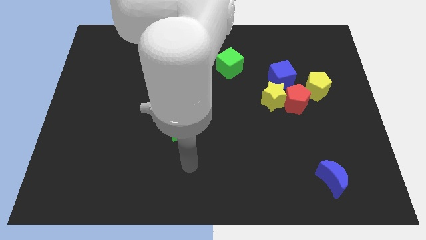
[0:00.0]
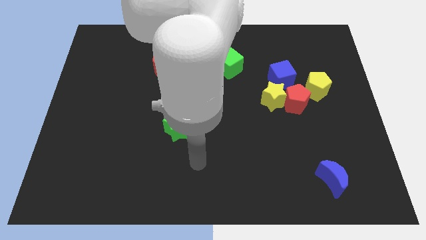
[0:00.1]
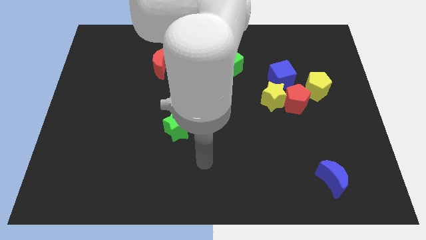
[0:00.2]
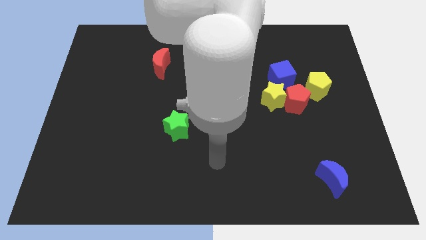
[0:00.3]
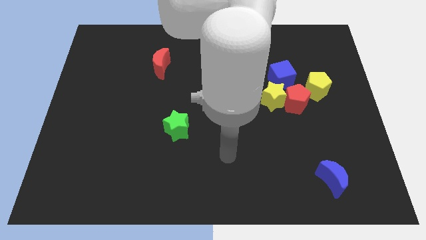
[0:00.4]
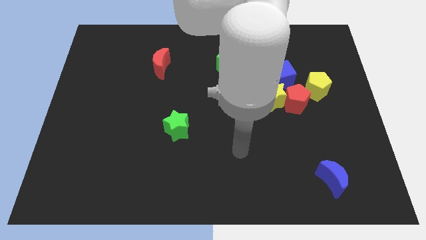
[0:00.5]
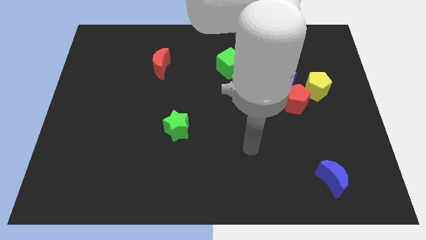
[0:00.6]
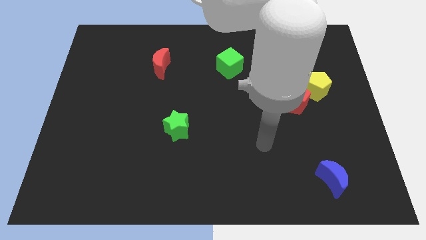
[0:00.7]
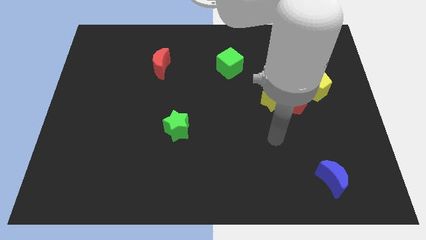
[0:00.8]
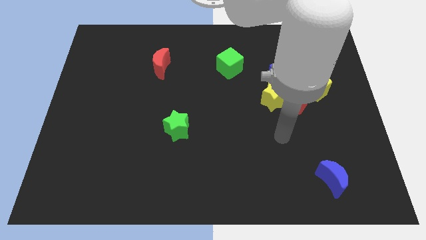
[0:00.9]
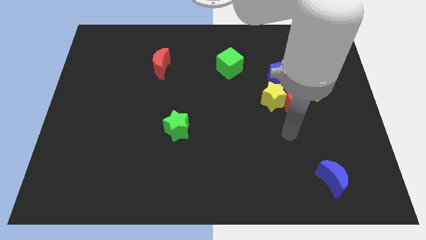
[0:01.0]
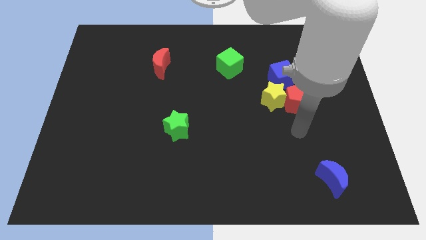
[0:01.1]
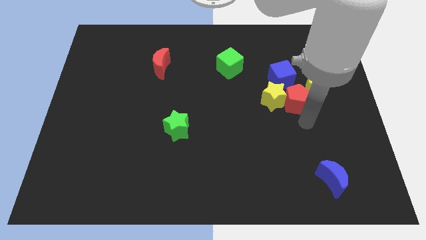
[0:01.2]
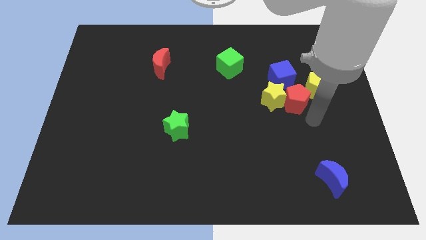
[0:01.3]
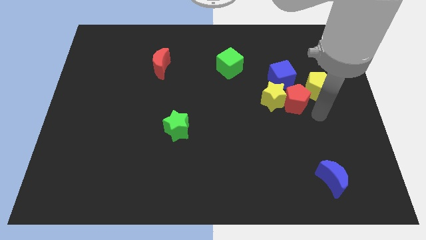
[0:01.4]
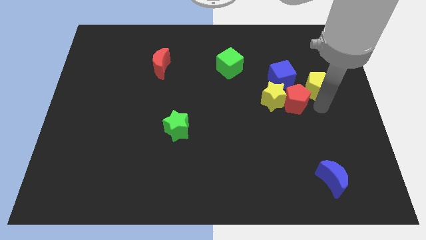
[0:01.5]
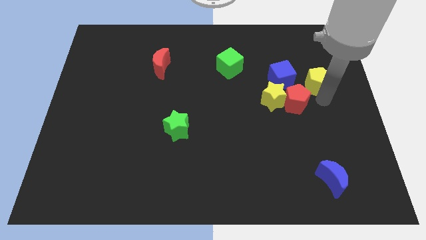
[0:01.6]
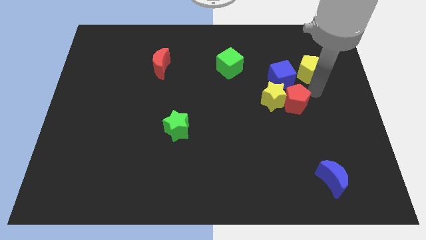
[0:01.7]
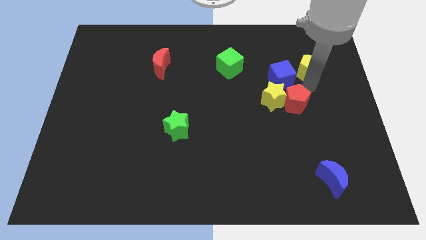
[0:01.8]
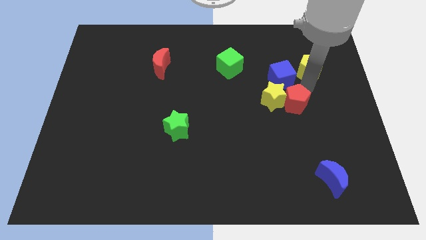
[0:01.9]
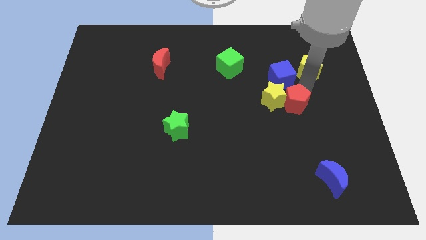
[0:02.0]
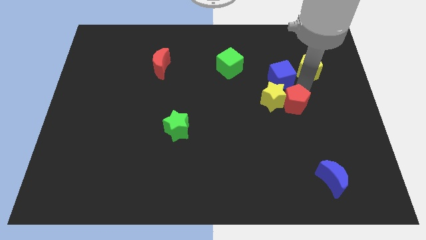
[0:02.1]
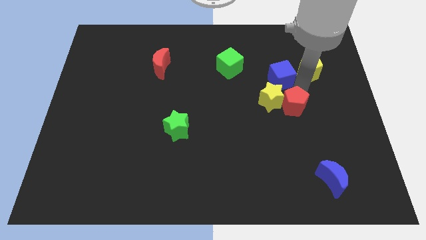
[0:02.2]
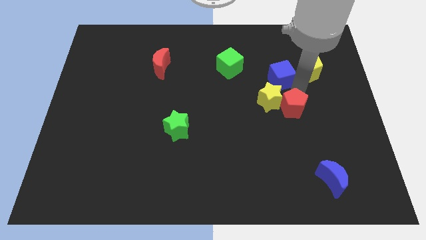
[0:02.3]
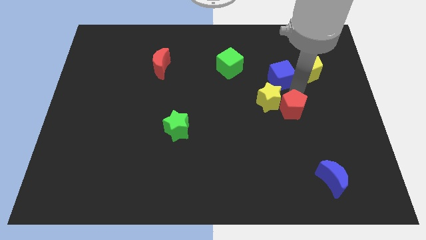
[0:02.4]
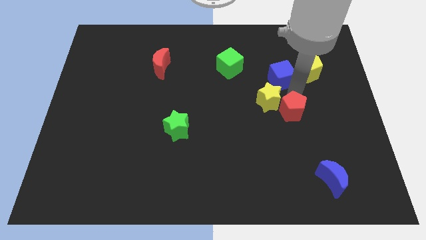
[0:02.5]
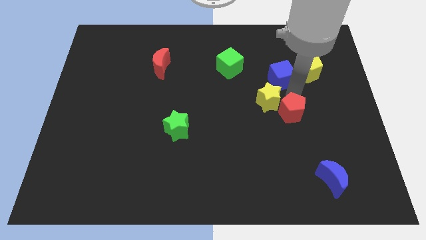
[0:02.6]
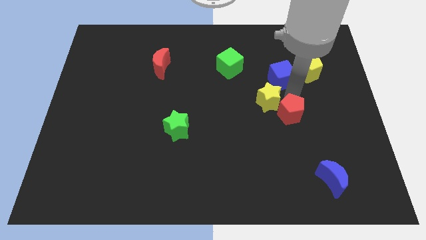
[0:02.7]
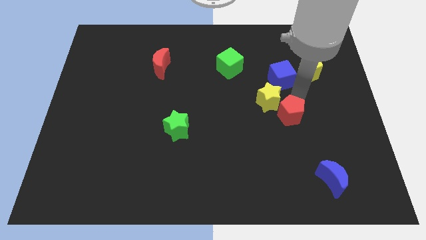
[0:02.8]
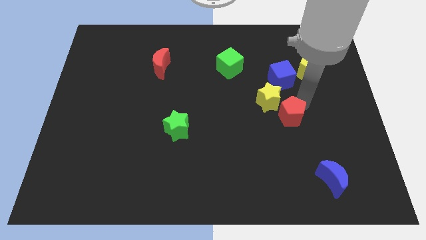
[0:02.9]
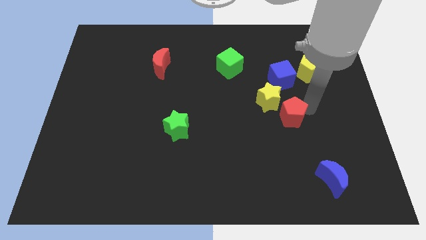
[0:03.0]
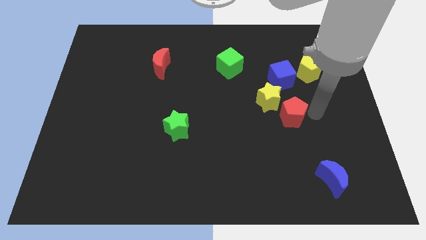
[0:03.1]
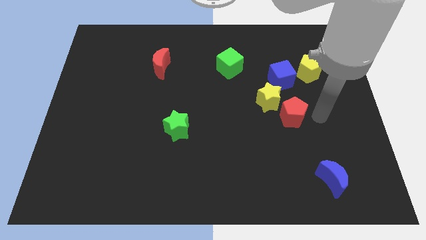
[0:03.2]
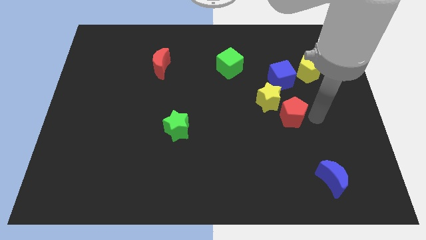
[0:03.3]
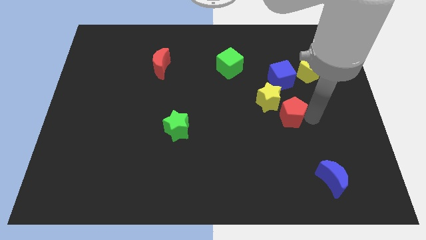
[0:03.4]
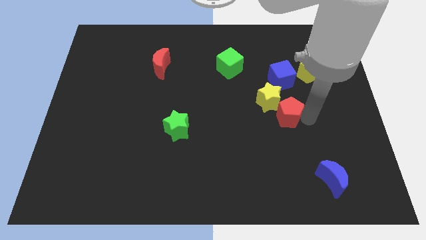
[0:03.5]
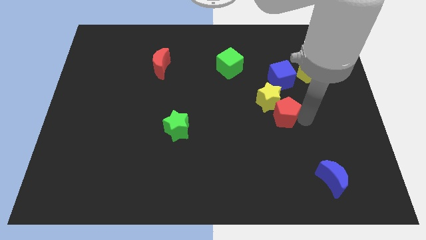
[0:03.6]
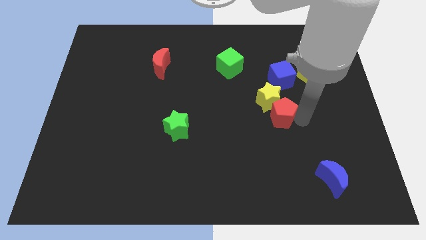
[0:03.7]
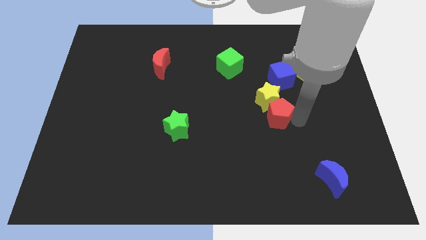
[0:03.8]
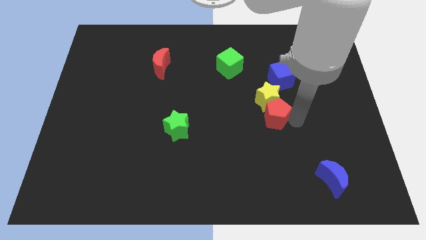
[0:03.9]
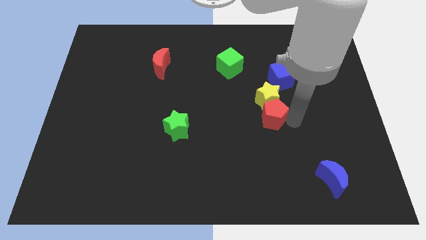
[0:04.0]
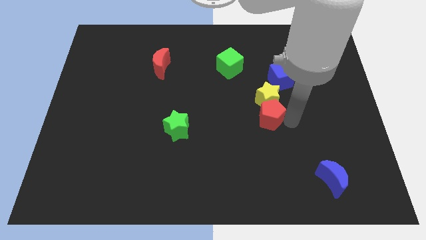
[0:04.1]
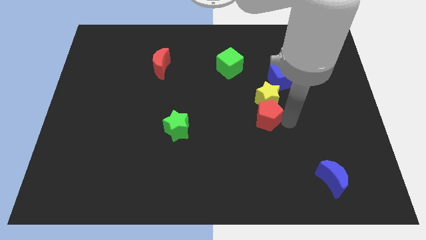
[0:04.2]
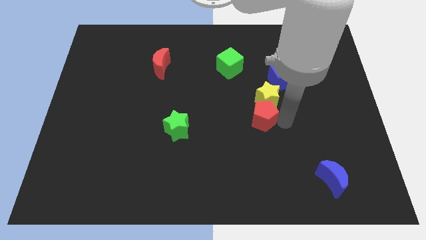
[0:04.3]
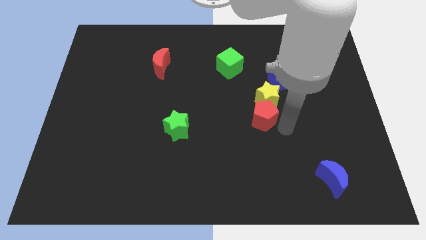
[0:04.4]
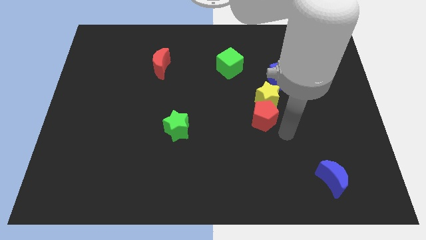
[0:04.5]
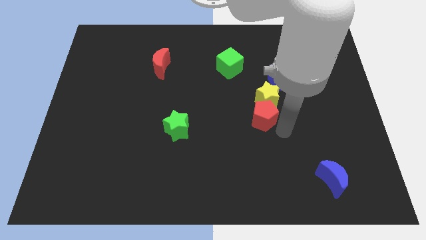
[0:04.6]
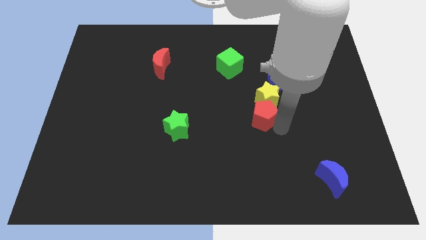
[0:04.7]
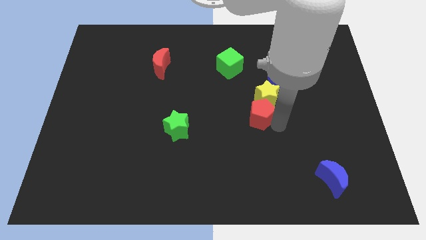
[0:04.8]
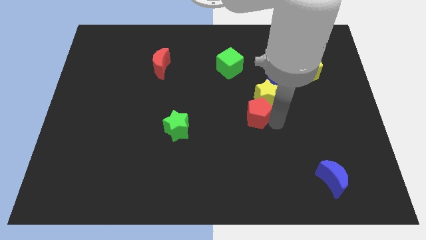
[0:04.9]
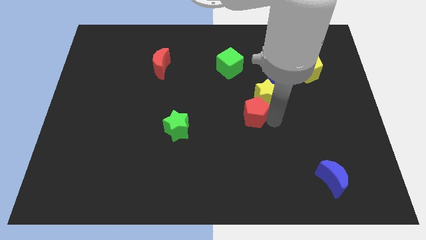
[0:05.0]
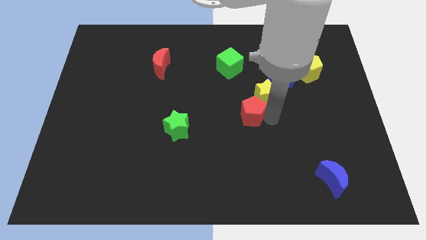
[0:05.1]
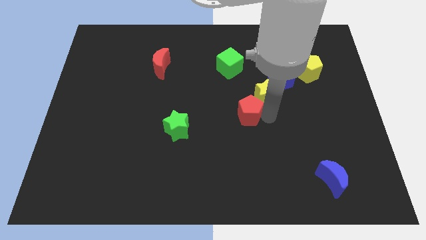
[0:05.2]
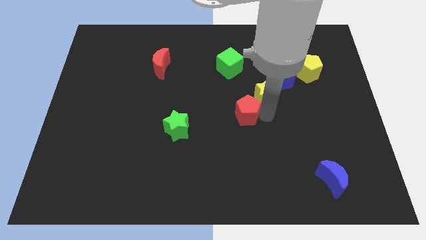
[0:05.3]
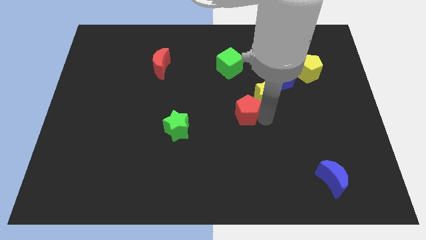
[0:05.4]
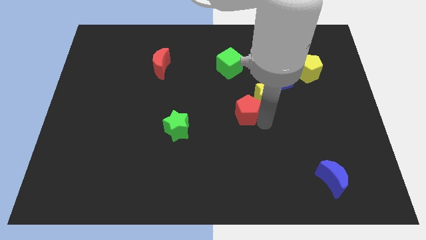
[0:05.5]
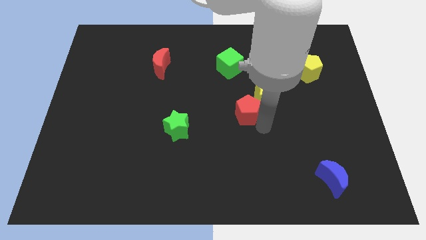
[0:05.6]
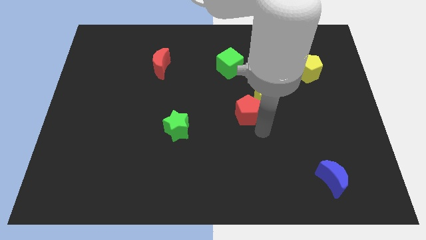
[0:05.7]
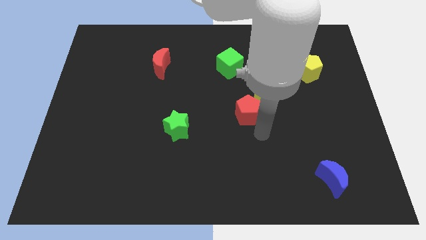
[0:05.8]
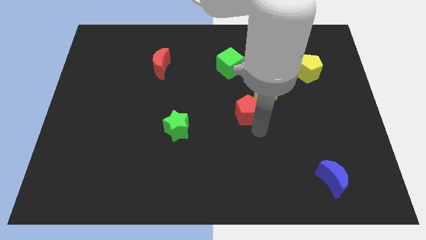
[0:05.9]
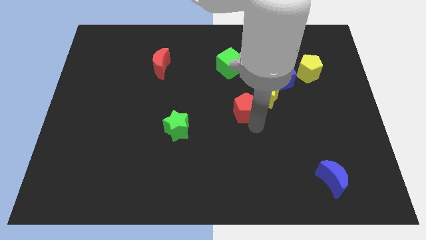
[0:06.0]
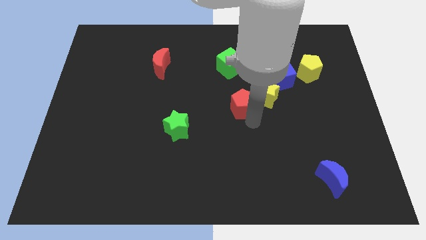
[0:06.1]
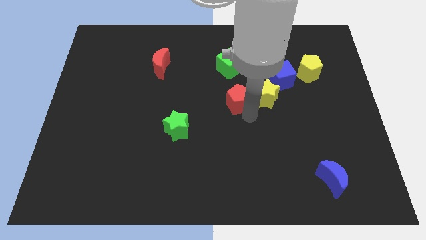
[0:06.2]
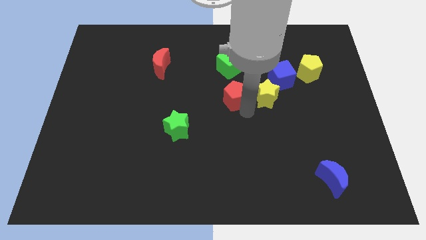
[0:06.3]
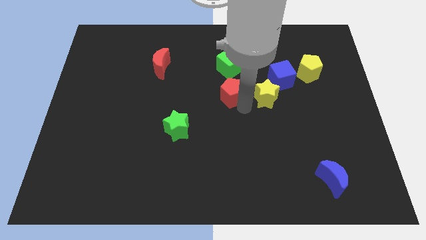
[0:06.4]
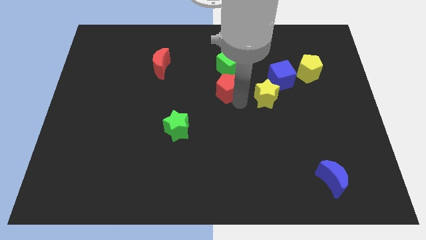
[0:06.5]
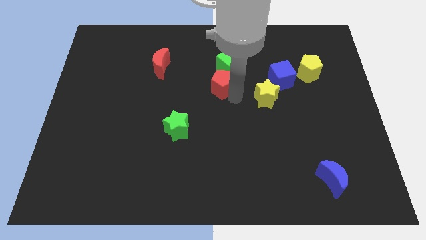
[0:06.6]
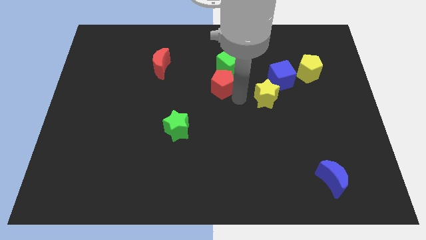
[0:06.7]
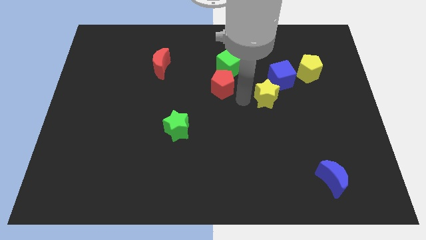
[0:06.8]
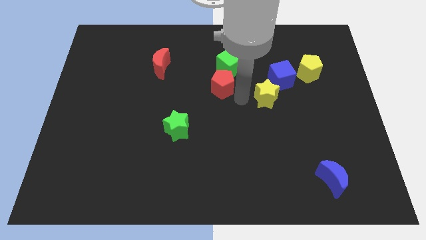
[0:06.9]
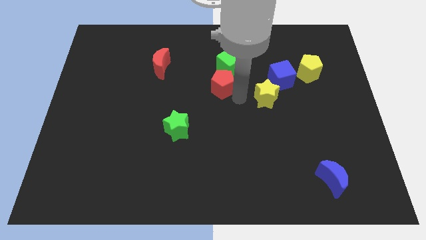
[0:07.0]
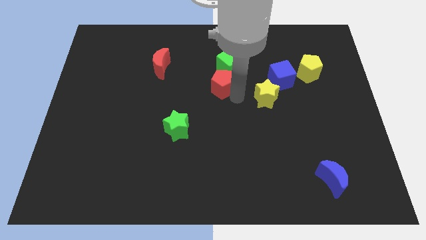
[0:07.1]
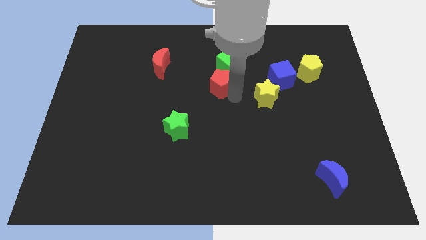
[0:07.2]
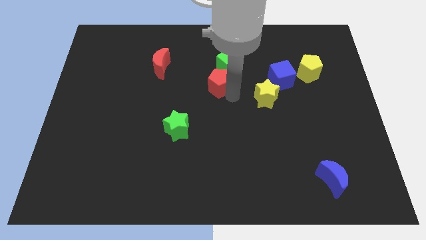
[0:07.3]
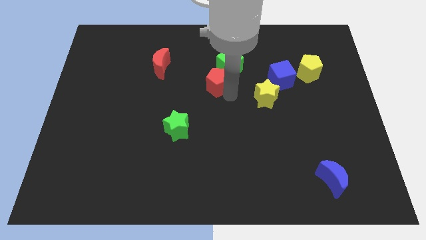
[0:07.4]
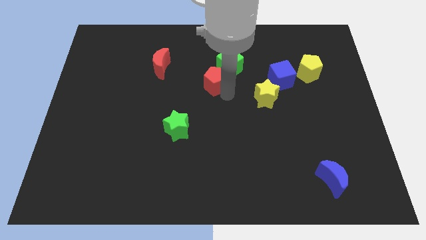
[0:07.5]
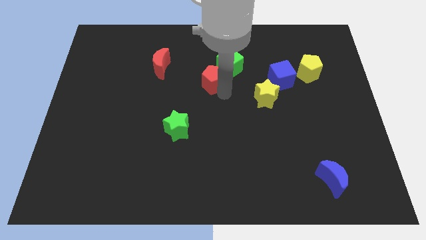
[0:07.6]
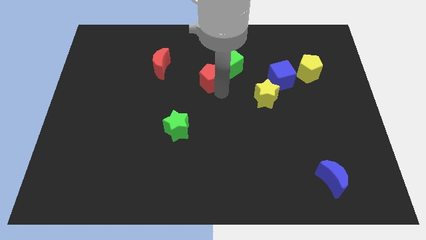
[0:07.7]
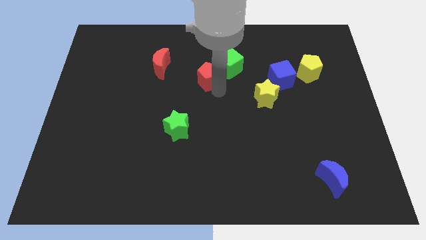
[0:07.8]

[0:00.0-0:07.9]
slide the red pentagon to the right of the red moon
